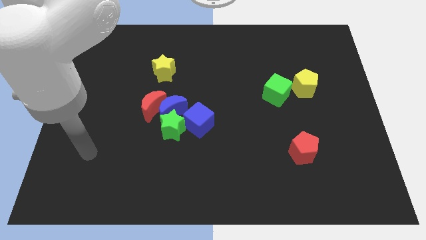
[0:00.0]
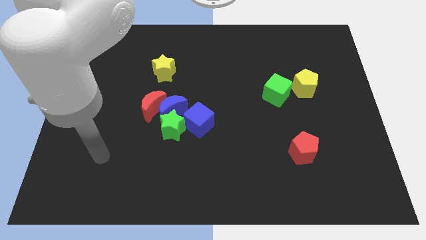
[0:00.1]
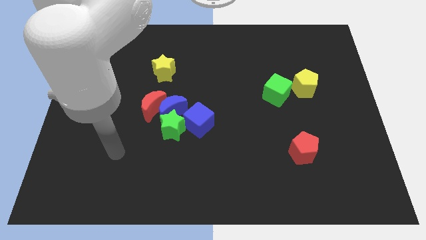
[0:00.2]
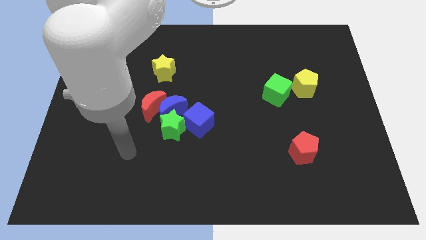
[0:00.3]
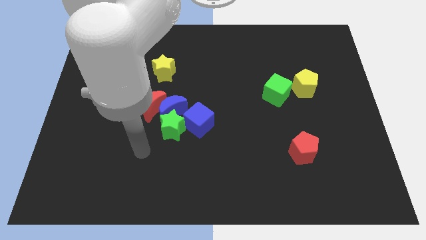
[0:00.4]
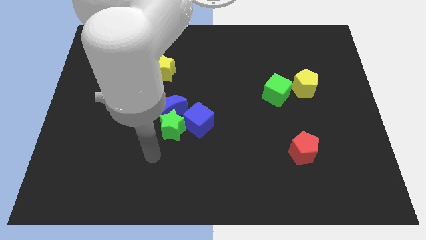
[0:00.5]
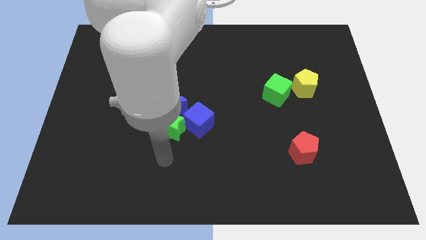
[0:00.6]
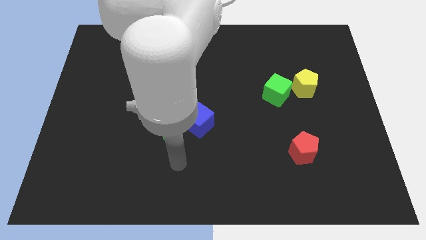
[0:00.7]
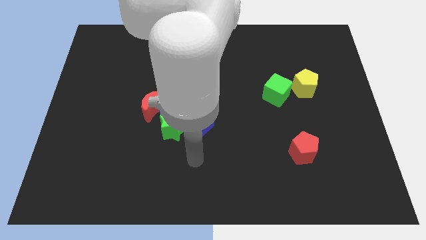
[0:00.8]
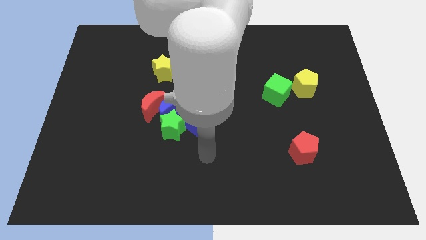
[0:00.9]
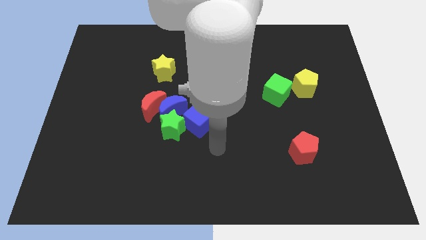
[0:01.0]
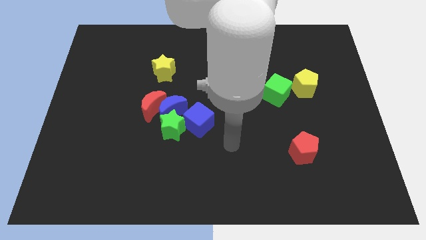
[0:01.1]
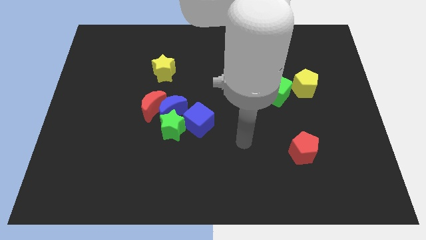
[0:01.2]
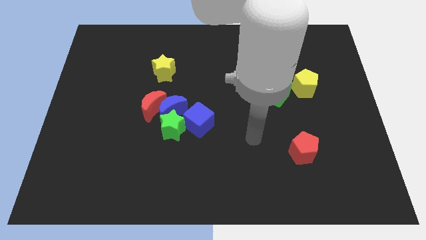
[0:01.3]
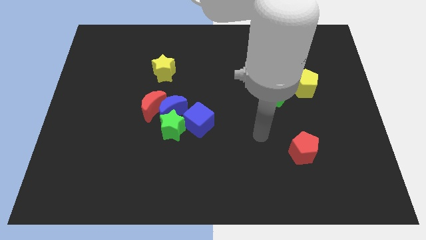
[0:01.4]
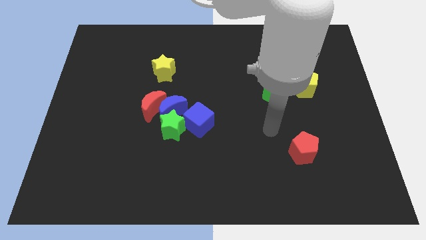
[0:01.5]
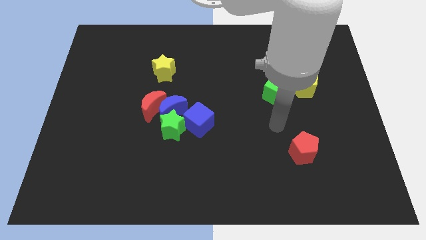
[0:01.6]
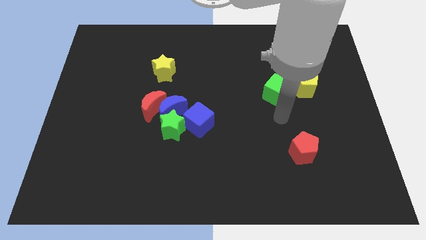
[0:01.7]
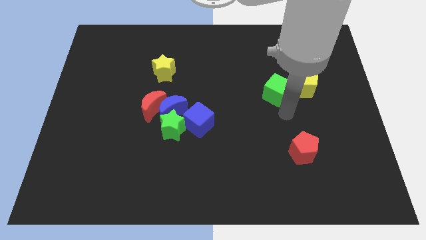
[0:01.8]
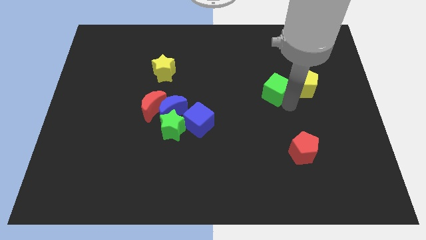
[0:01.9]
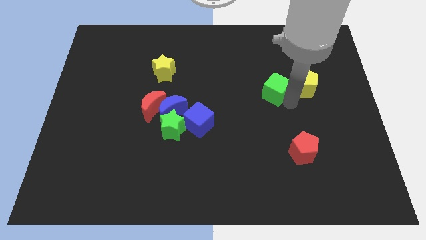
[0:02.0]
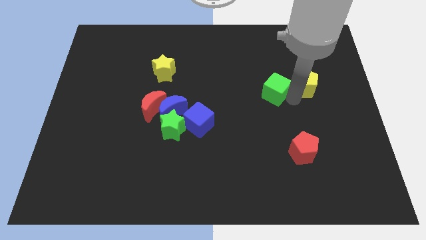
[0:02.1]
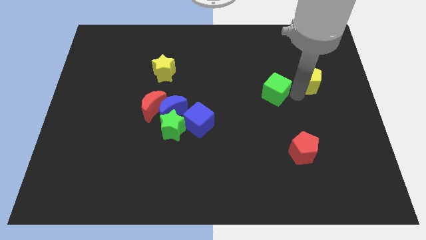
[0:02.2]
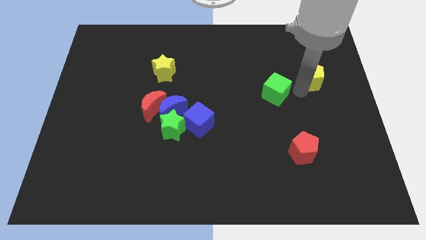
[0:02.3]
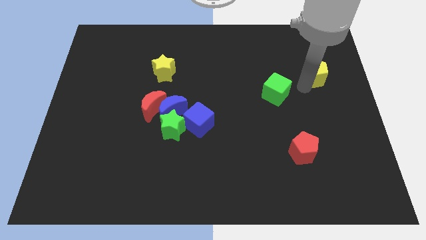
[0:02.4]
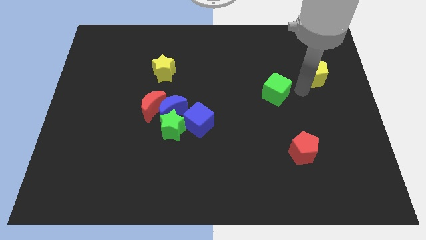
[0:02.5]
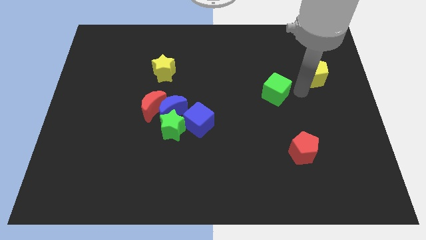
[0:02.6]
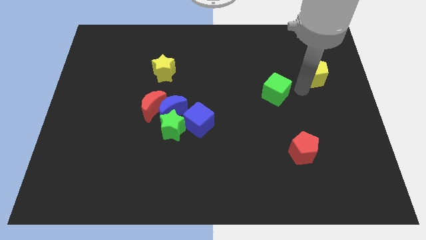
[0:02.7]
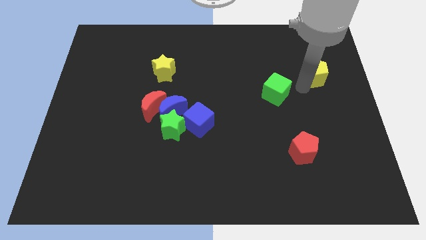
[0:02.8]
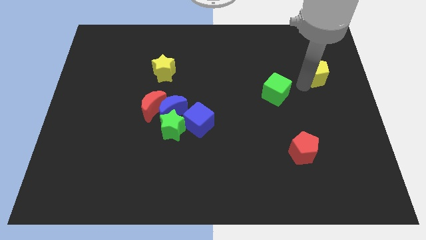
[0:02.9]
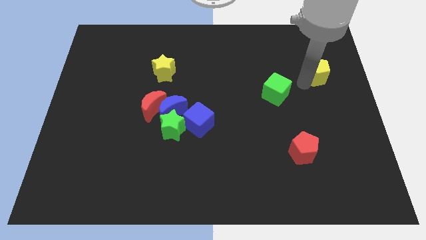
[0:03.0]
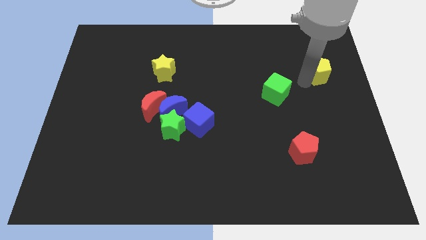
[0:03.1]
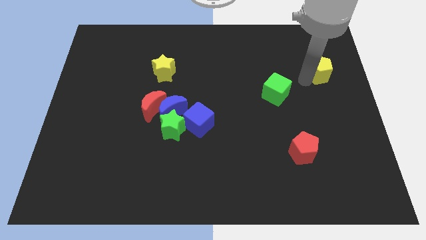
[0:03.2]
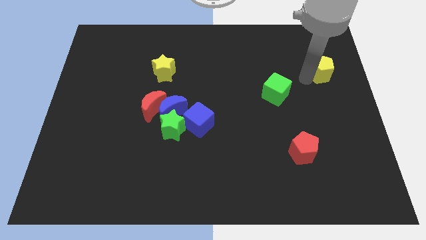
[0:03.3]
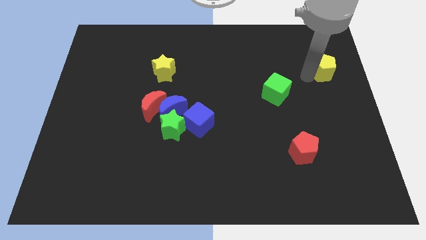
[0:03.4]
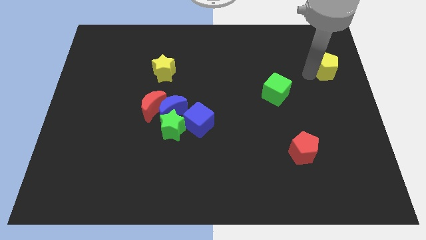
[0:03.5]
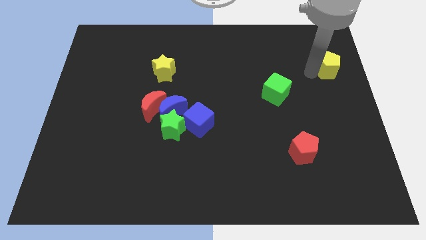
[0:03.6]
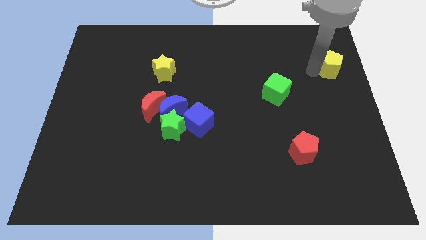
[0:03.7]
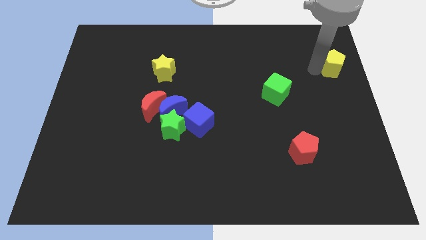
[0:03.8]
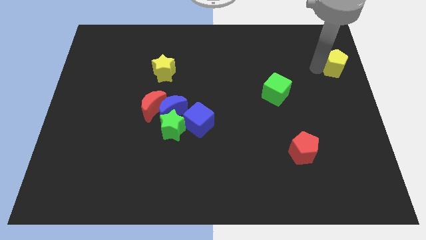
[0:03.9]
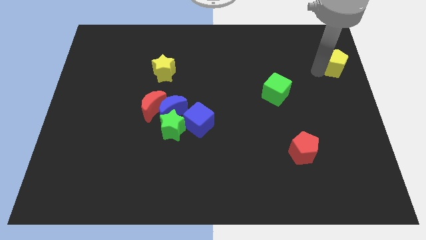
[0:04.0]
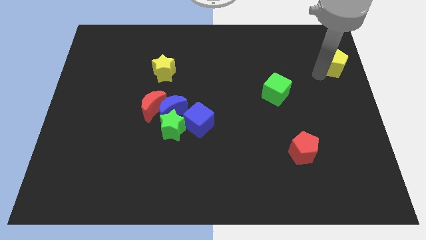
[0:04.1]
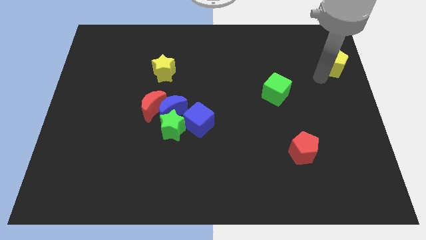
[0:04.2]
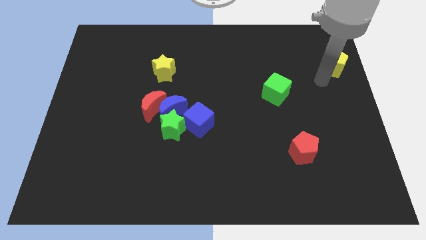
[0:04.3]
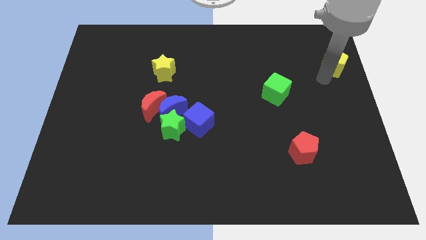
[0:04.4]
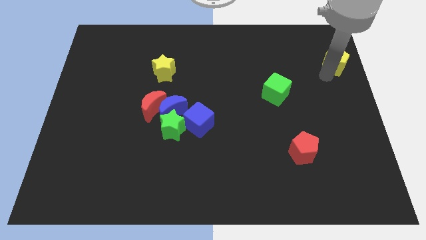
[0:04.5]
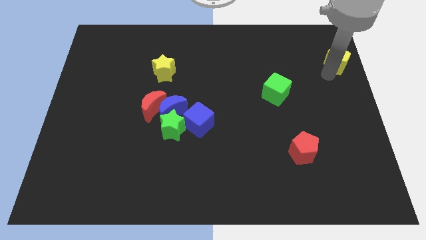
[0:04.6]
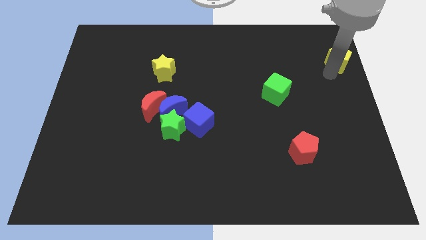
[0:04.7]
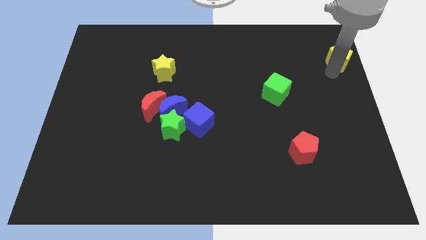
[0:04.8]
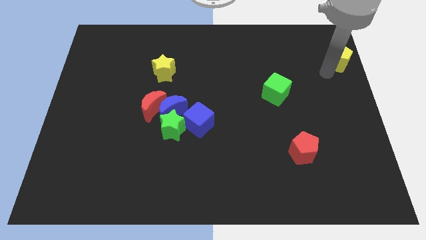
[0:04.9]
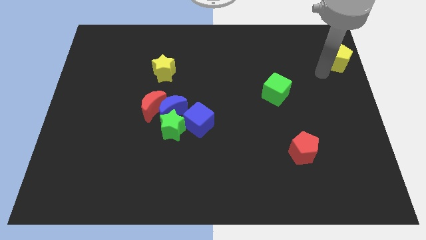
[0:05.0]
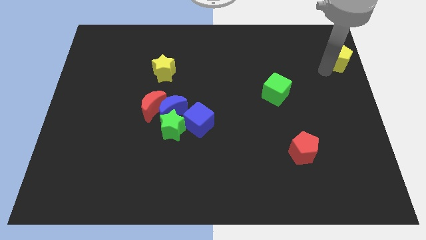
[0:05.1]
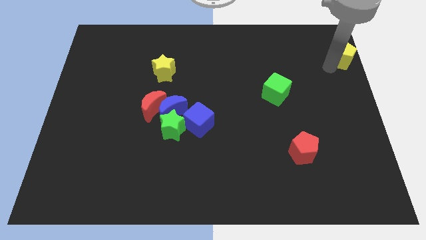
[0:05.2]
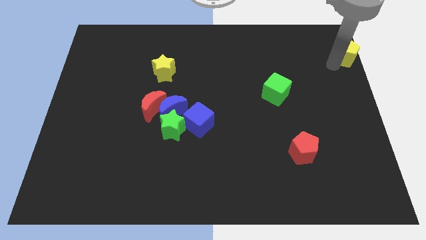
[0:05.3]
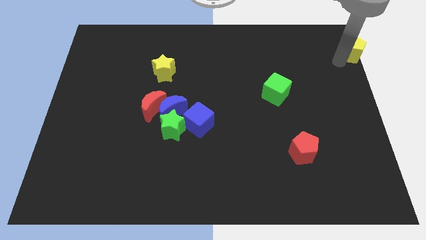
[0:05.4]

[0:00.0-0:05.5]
slide the yellow pentagon to the top right

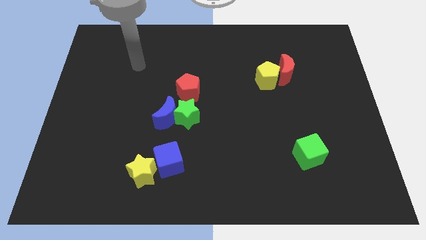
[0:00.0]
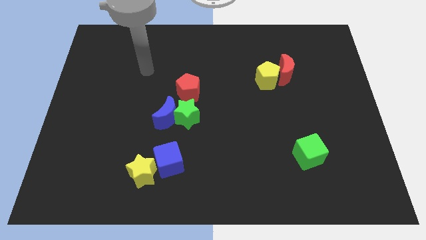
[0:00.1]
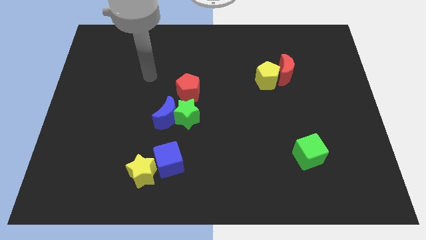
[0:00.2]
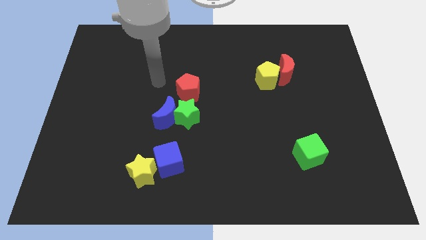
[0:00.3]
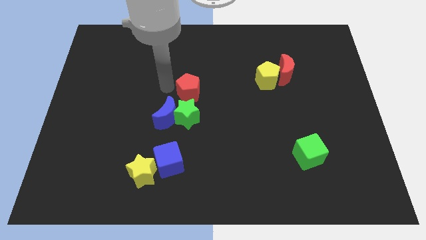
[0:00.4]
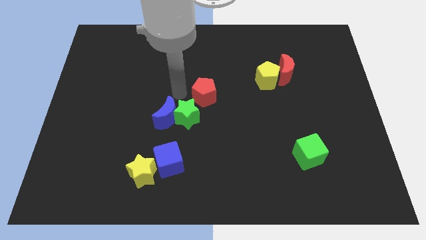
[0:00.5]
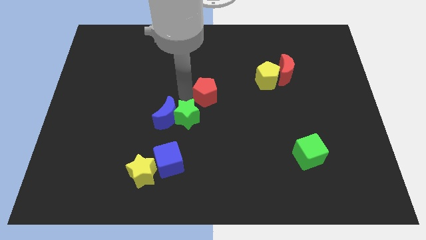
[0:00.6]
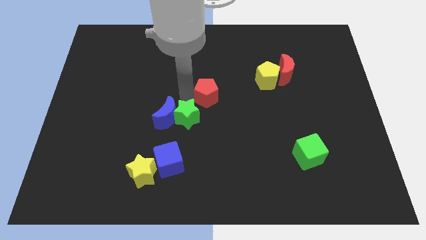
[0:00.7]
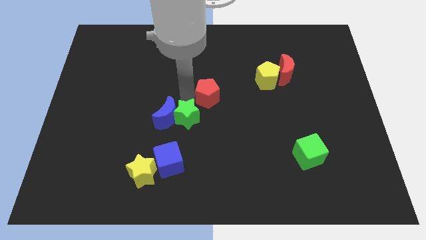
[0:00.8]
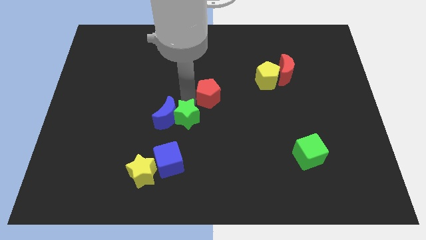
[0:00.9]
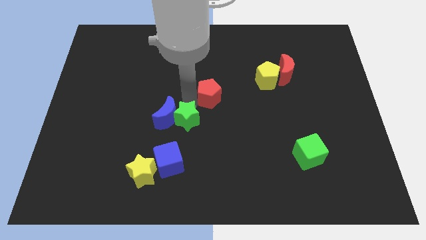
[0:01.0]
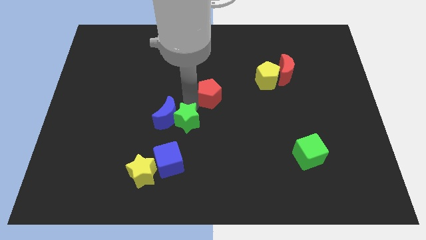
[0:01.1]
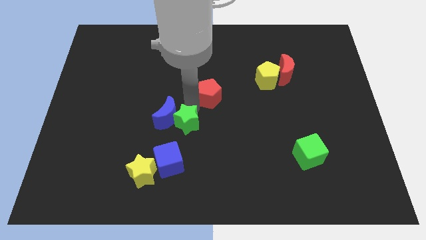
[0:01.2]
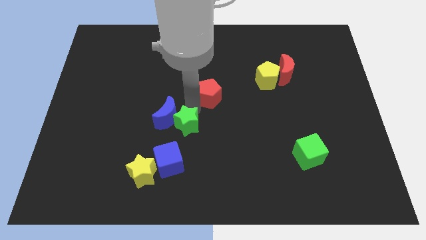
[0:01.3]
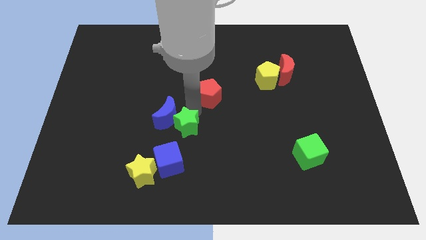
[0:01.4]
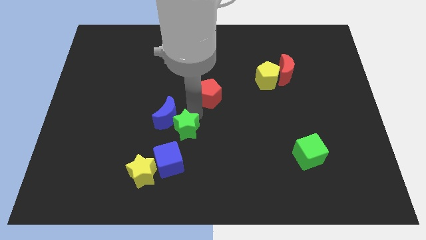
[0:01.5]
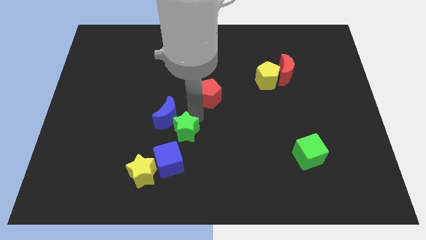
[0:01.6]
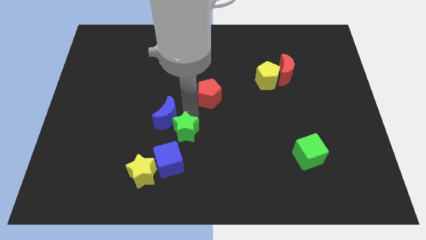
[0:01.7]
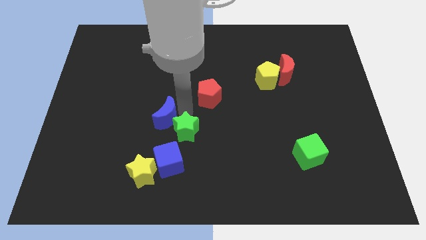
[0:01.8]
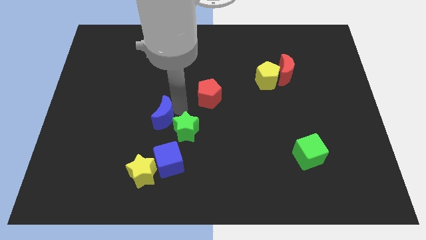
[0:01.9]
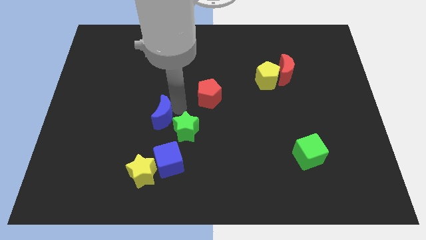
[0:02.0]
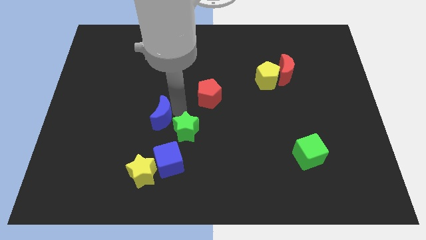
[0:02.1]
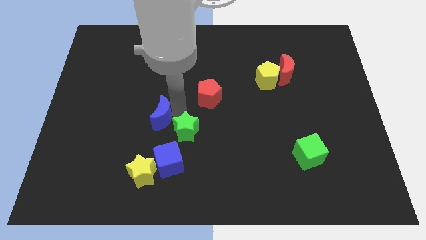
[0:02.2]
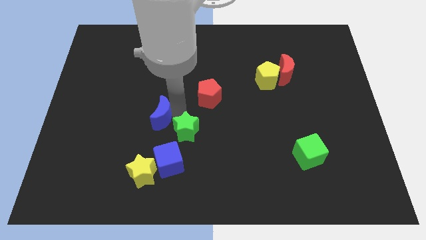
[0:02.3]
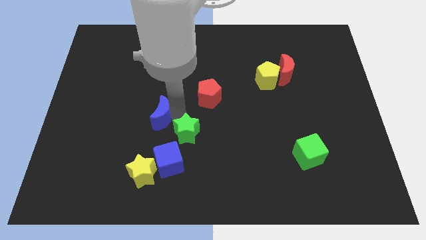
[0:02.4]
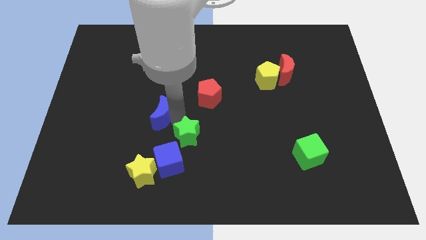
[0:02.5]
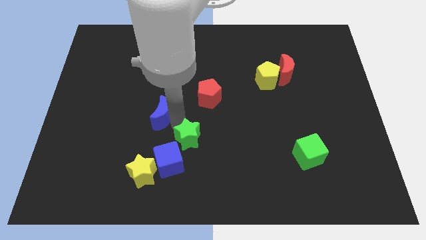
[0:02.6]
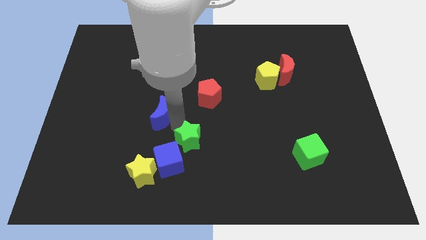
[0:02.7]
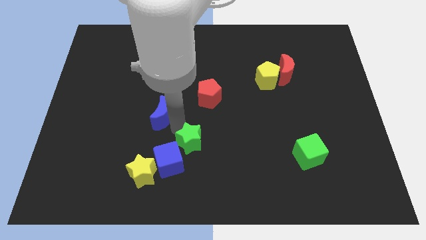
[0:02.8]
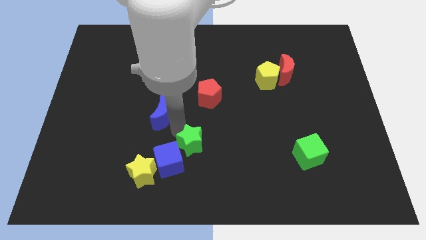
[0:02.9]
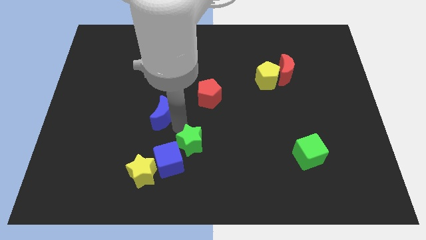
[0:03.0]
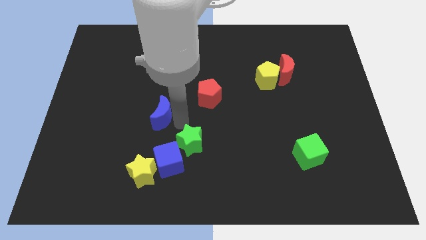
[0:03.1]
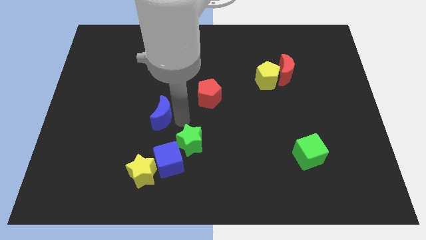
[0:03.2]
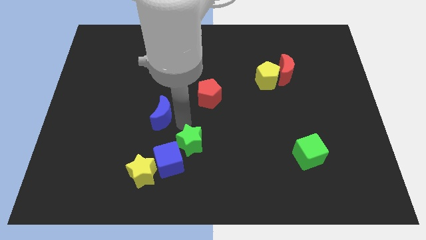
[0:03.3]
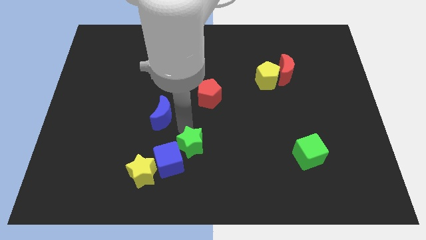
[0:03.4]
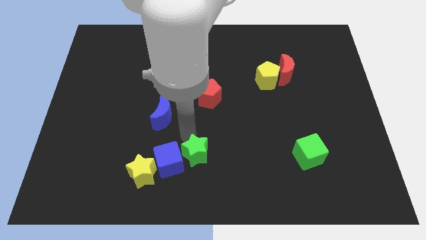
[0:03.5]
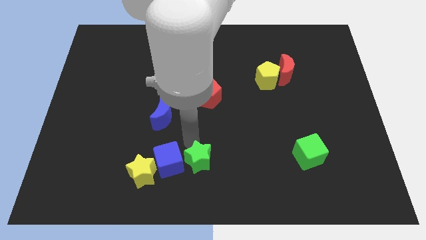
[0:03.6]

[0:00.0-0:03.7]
slide the green star to the bottom side
